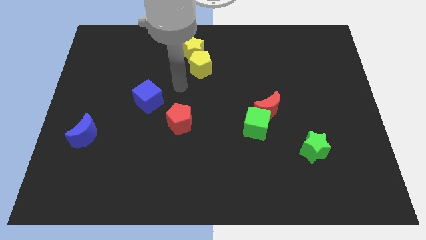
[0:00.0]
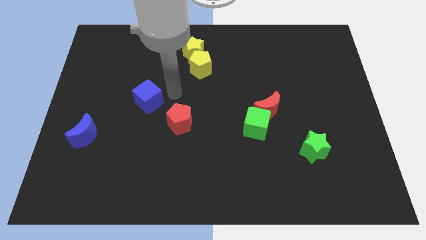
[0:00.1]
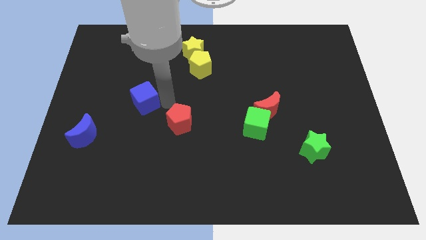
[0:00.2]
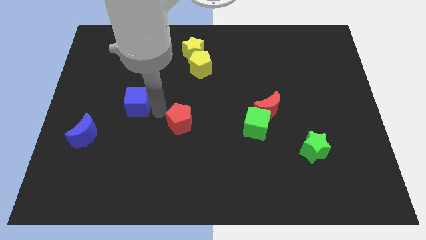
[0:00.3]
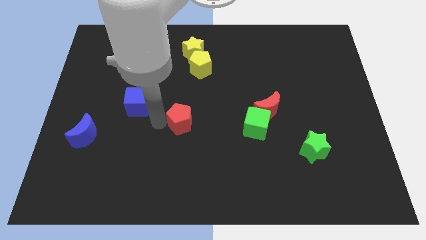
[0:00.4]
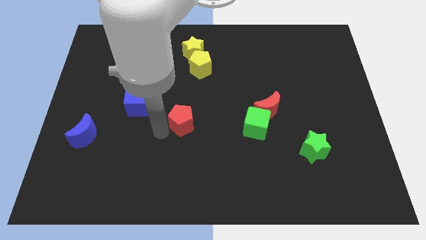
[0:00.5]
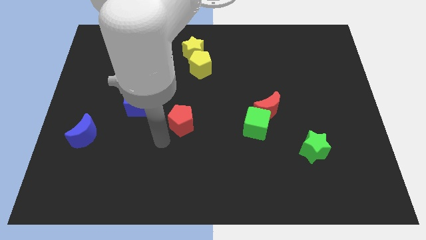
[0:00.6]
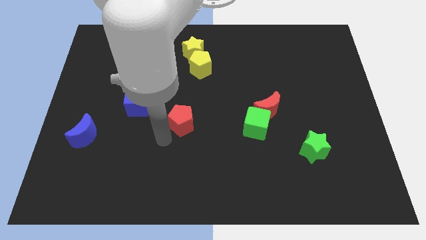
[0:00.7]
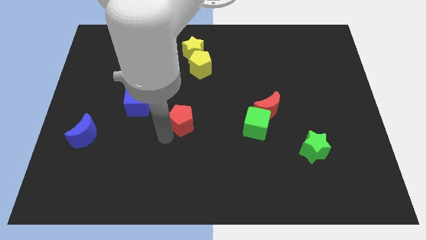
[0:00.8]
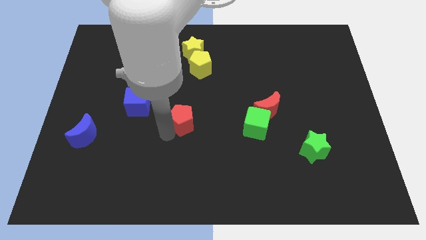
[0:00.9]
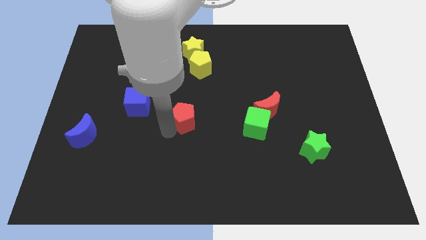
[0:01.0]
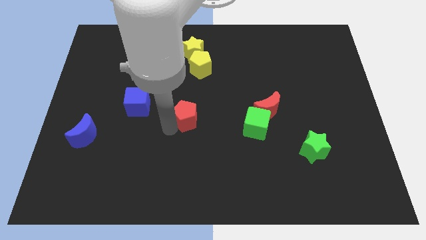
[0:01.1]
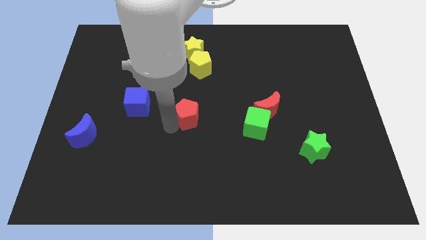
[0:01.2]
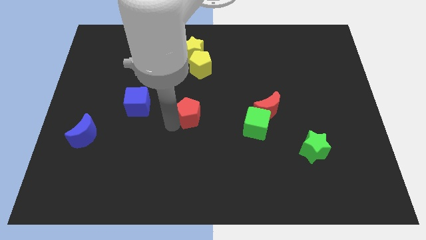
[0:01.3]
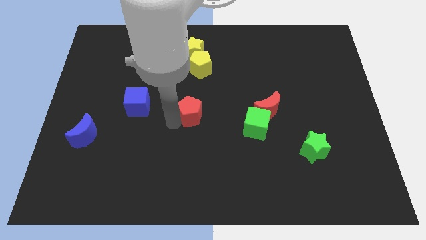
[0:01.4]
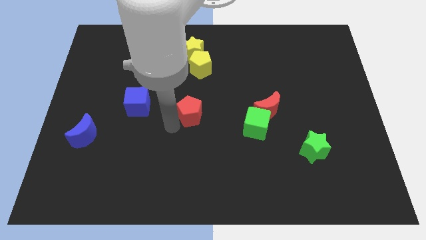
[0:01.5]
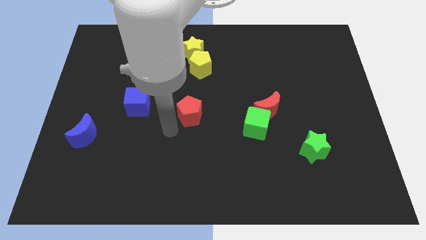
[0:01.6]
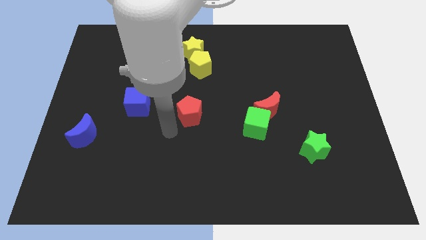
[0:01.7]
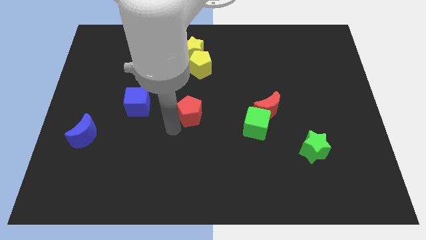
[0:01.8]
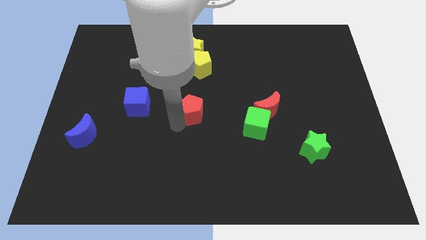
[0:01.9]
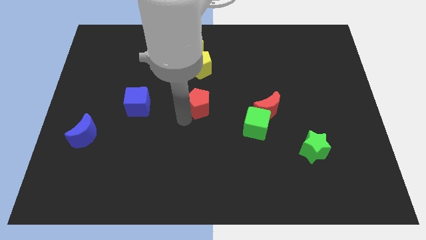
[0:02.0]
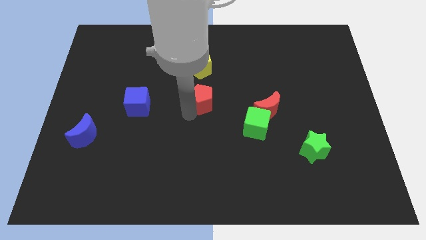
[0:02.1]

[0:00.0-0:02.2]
push the red pentagon a little bit upwards and to the right

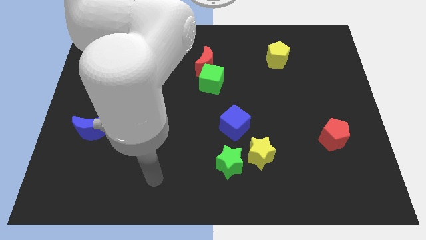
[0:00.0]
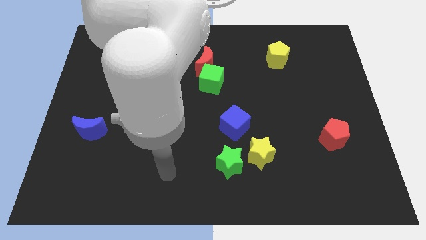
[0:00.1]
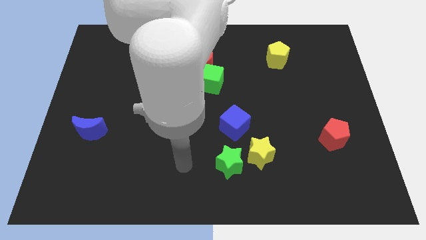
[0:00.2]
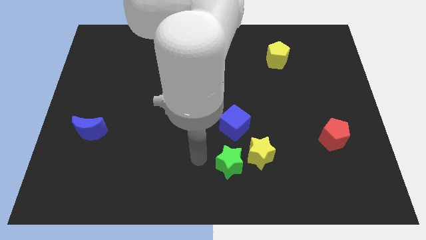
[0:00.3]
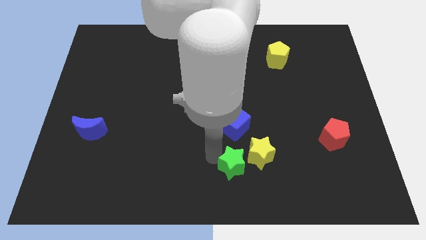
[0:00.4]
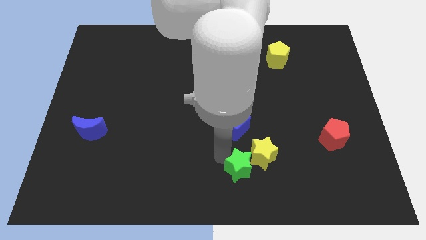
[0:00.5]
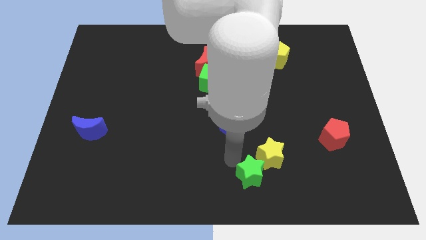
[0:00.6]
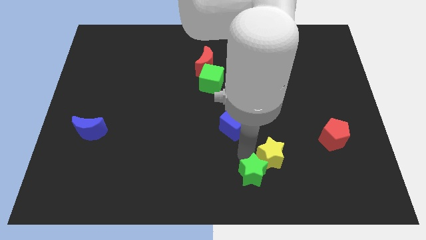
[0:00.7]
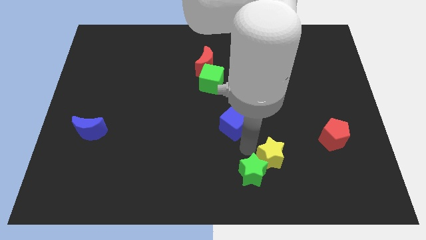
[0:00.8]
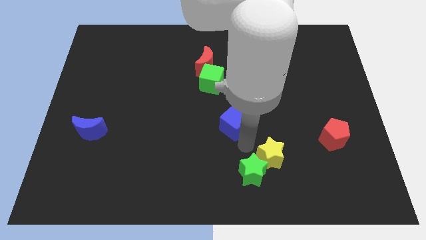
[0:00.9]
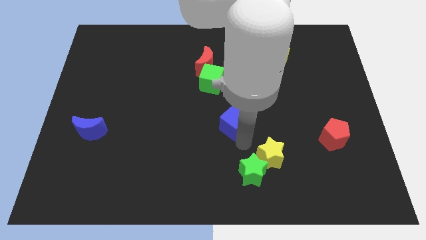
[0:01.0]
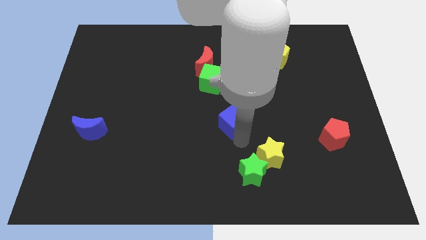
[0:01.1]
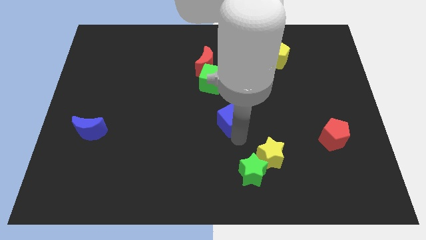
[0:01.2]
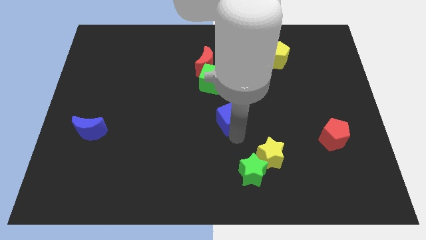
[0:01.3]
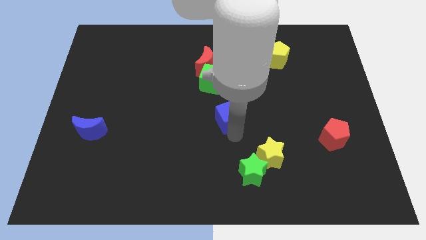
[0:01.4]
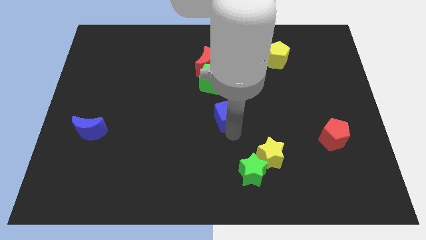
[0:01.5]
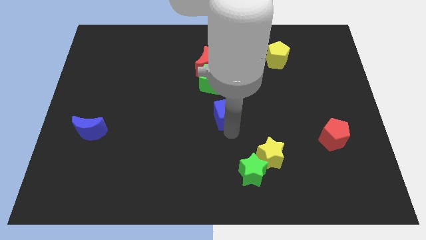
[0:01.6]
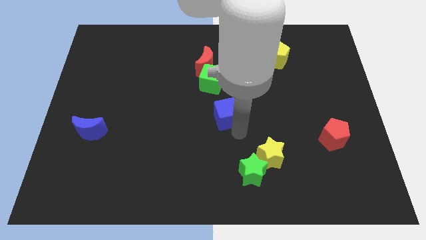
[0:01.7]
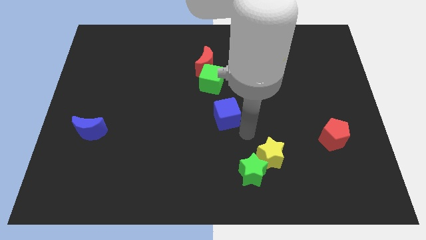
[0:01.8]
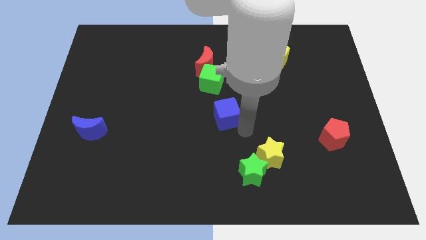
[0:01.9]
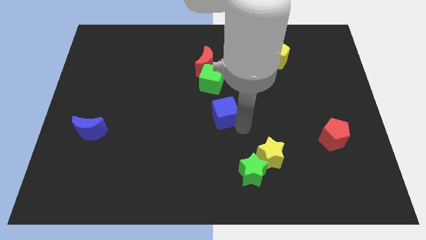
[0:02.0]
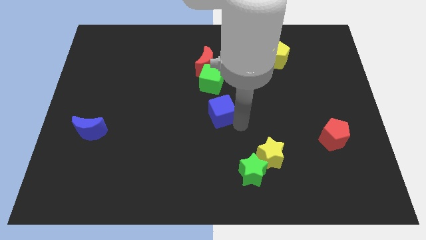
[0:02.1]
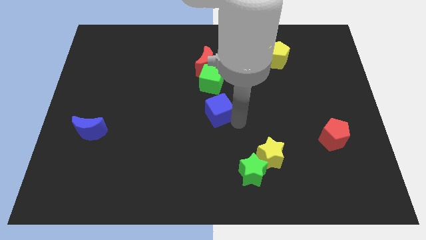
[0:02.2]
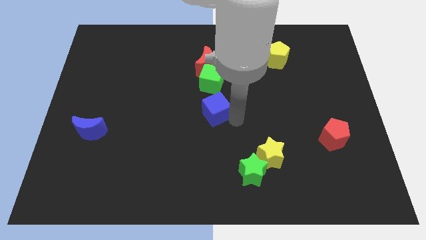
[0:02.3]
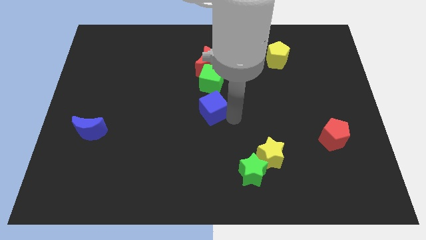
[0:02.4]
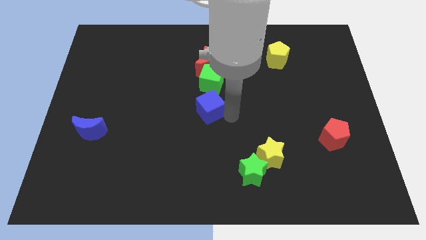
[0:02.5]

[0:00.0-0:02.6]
slide the blue cube a bit up and then left

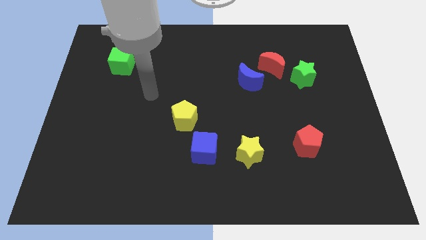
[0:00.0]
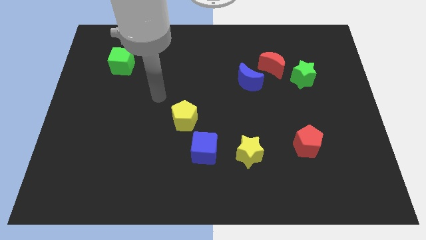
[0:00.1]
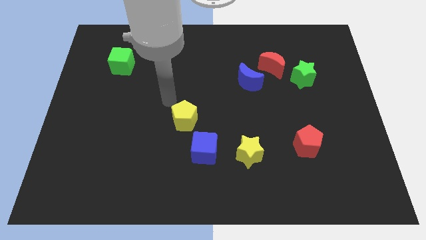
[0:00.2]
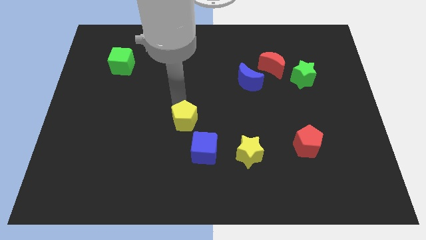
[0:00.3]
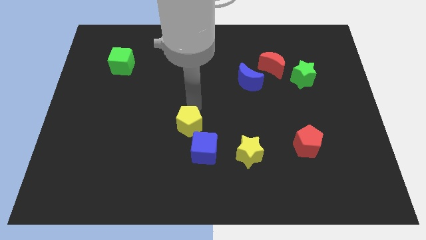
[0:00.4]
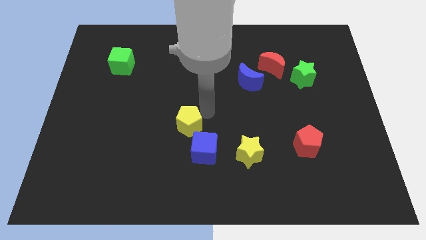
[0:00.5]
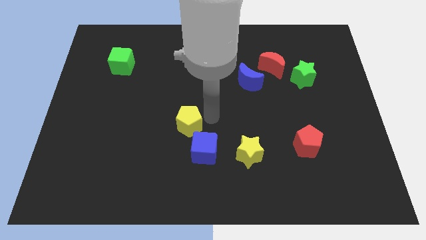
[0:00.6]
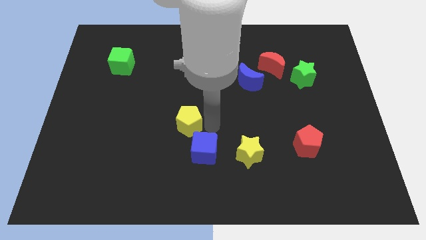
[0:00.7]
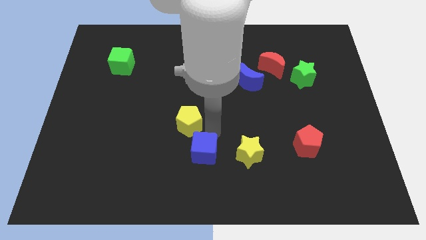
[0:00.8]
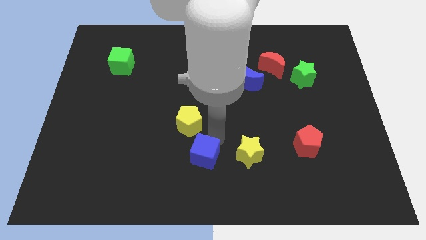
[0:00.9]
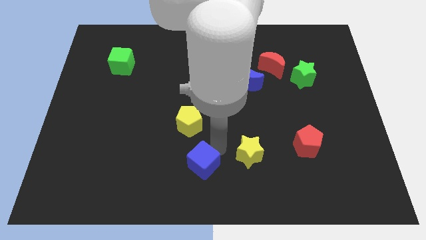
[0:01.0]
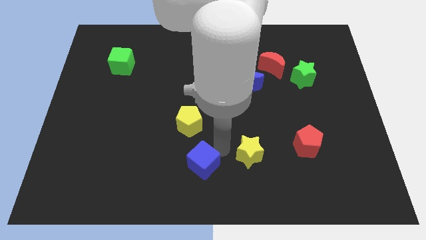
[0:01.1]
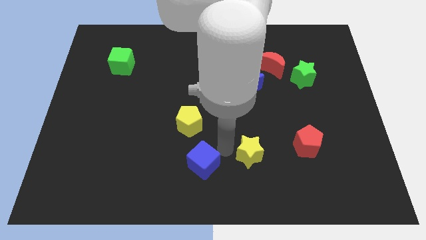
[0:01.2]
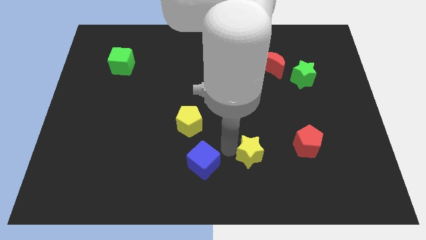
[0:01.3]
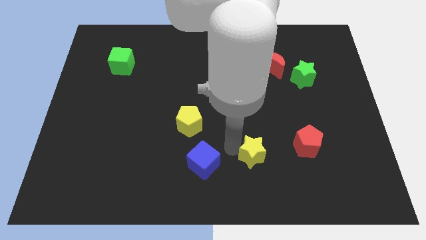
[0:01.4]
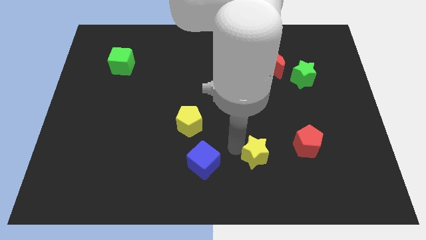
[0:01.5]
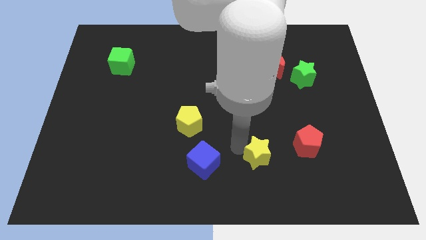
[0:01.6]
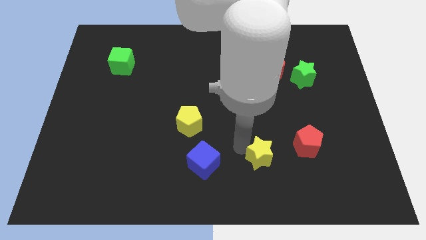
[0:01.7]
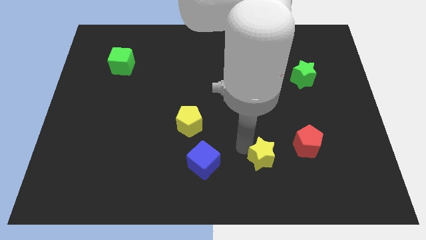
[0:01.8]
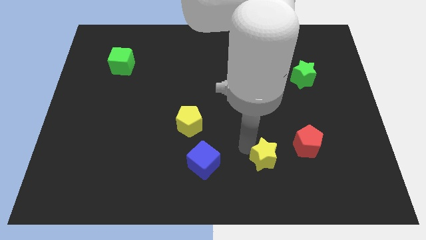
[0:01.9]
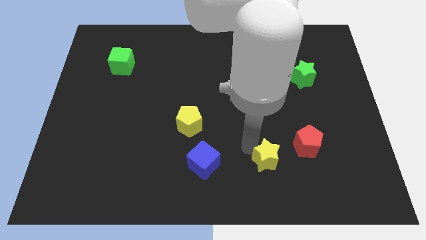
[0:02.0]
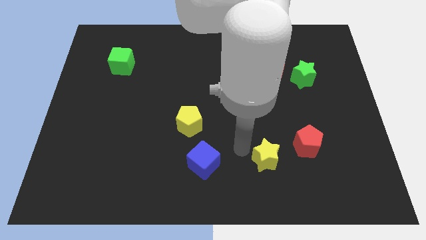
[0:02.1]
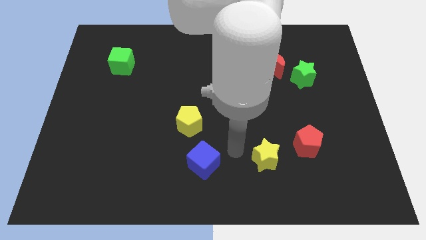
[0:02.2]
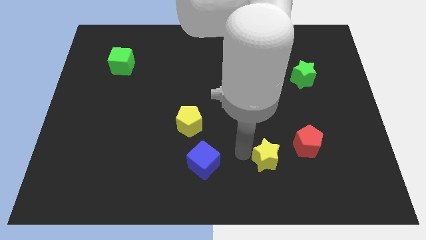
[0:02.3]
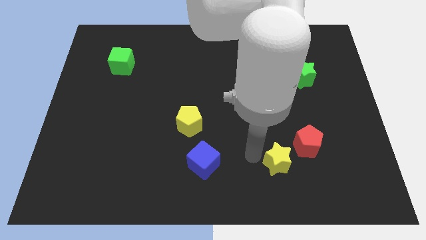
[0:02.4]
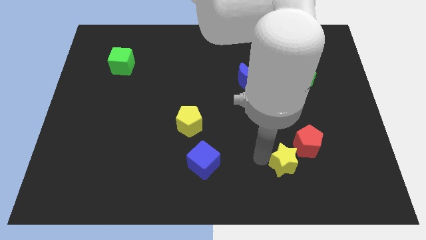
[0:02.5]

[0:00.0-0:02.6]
move the yellow star a little bit to the right

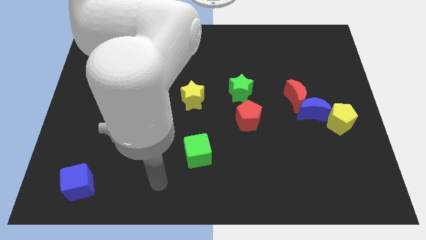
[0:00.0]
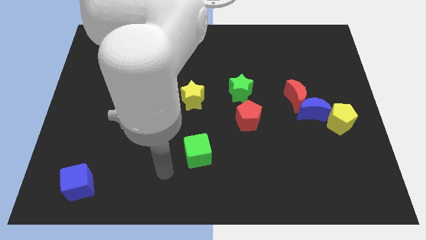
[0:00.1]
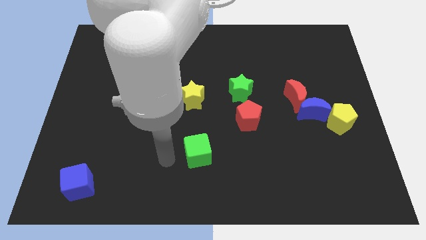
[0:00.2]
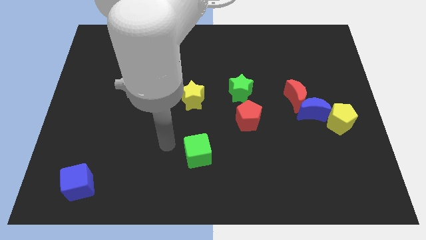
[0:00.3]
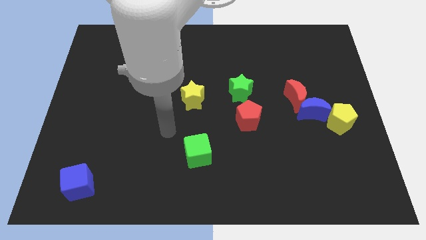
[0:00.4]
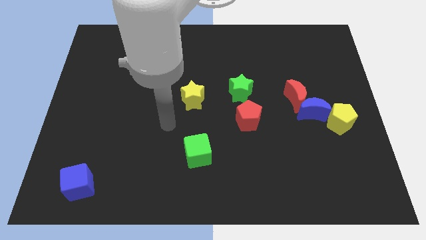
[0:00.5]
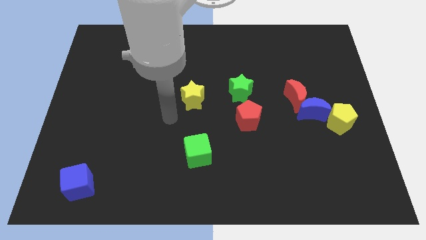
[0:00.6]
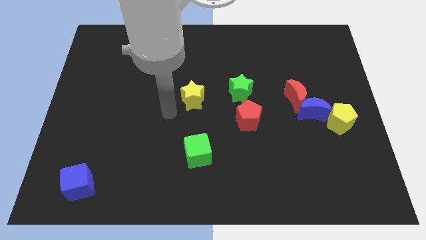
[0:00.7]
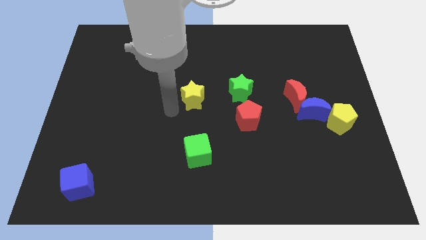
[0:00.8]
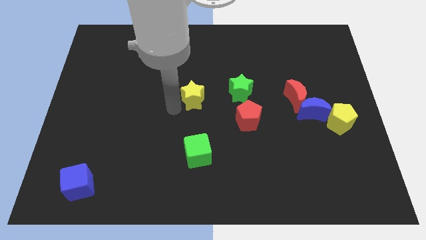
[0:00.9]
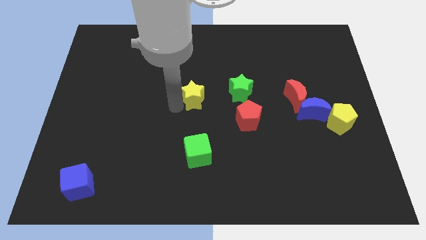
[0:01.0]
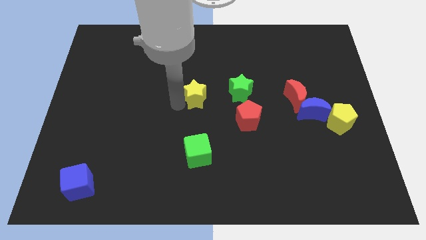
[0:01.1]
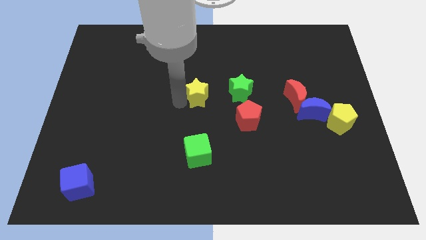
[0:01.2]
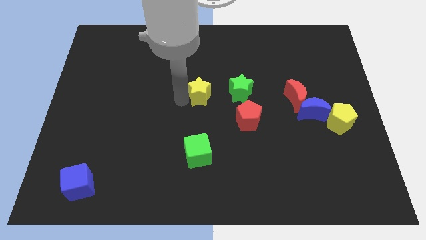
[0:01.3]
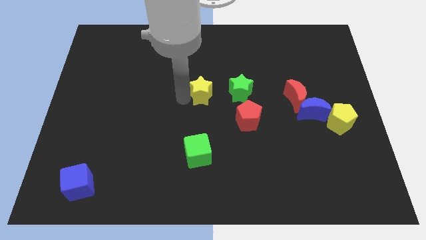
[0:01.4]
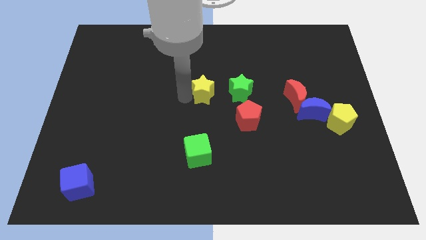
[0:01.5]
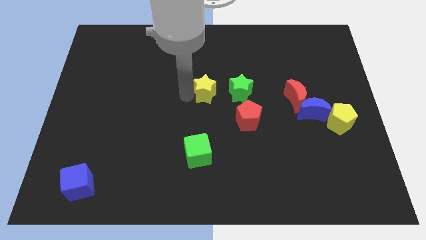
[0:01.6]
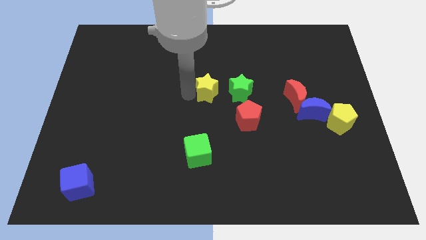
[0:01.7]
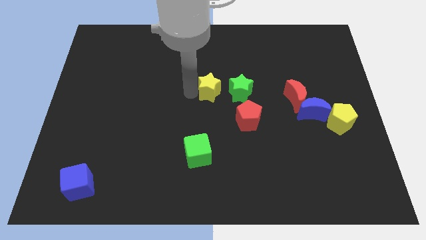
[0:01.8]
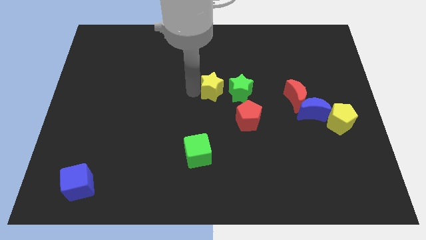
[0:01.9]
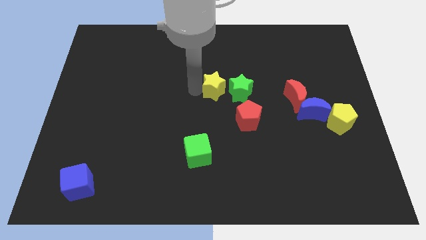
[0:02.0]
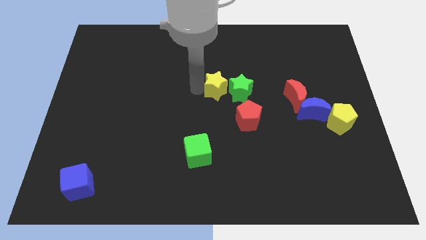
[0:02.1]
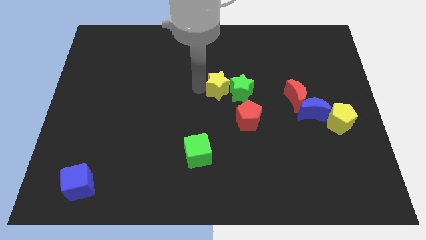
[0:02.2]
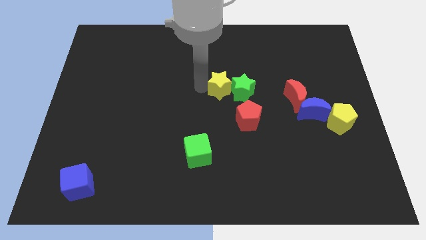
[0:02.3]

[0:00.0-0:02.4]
move the yellow star upwards and to the right slightly
